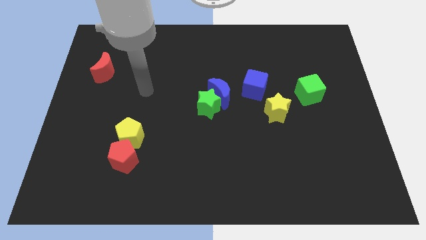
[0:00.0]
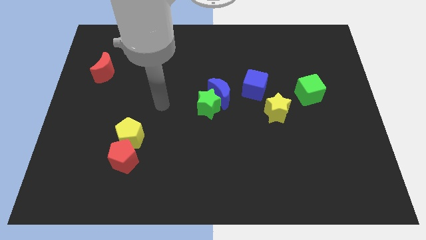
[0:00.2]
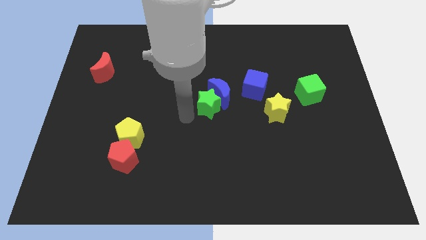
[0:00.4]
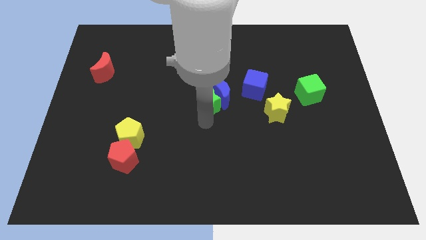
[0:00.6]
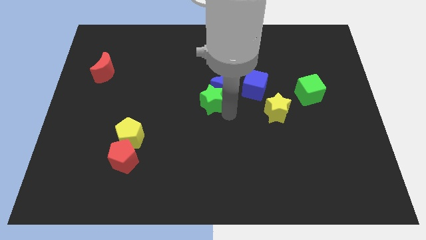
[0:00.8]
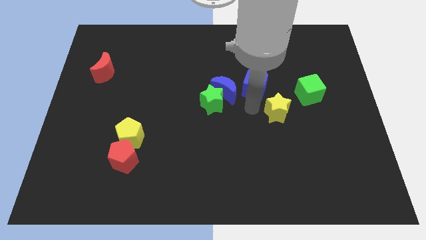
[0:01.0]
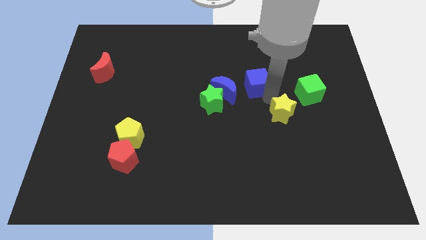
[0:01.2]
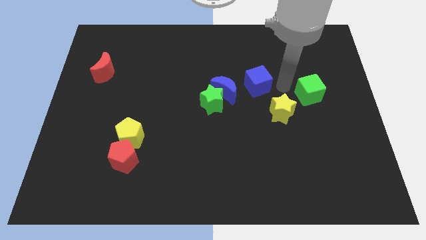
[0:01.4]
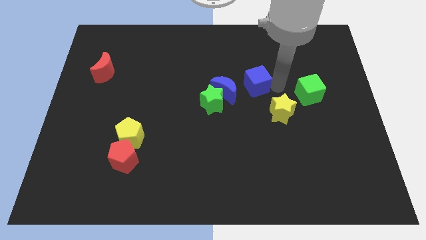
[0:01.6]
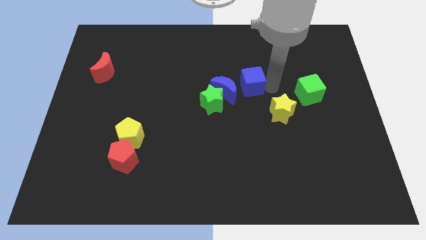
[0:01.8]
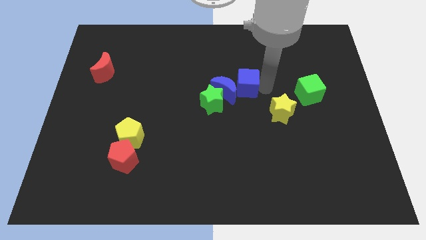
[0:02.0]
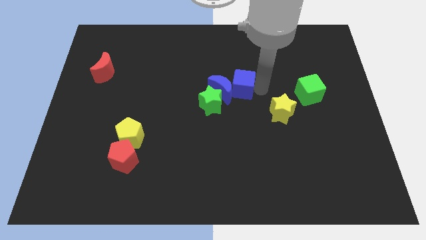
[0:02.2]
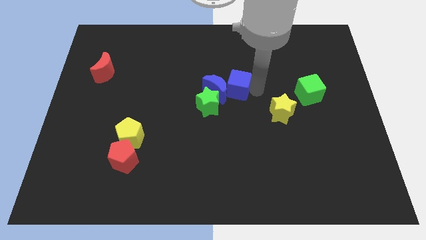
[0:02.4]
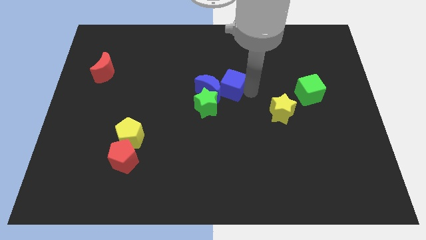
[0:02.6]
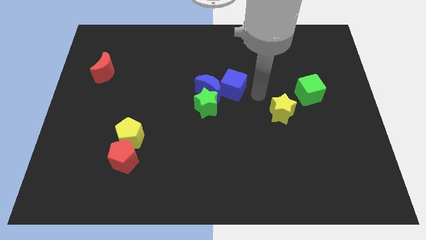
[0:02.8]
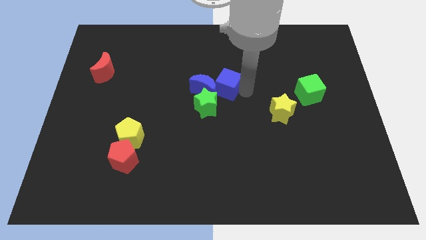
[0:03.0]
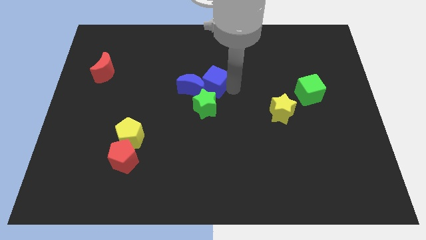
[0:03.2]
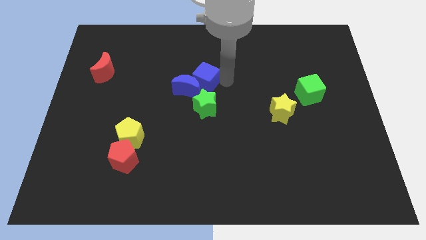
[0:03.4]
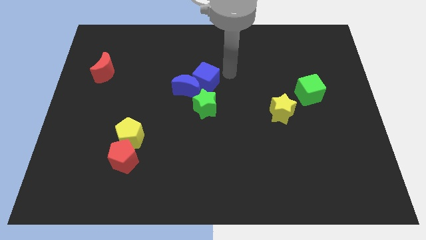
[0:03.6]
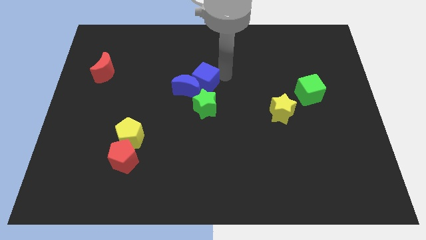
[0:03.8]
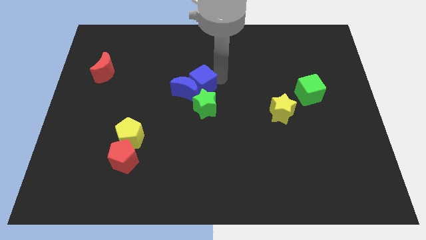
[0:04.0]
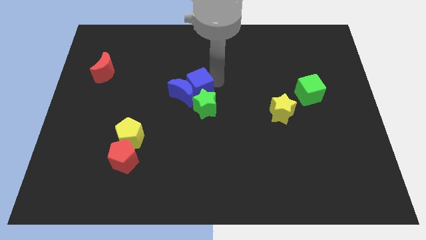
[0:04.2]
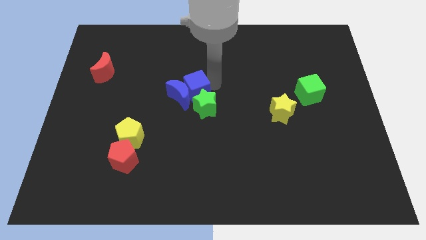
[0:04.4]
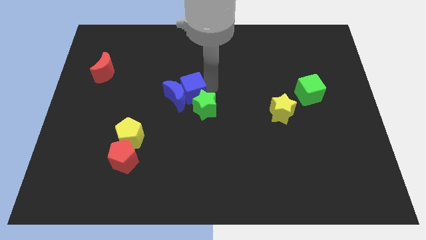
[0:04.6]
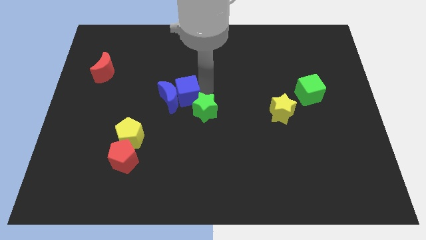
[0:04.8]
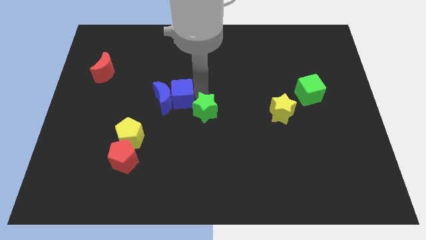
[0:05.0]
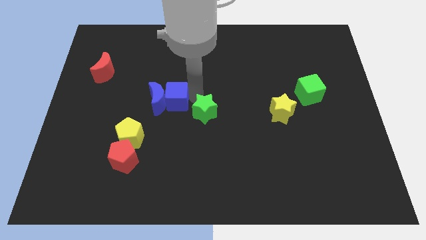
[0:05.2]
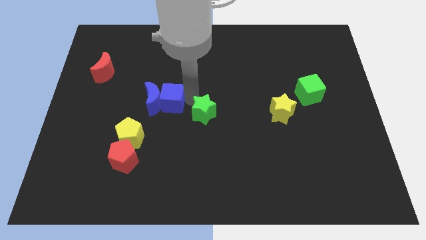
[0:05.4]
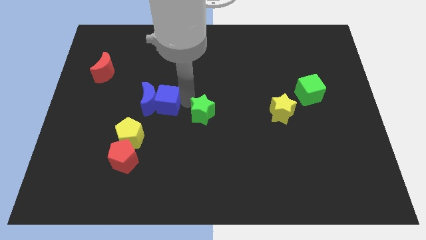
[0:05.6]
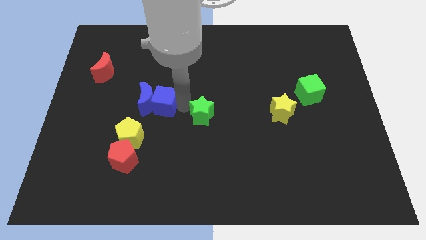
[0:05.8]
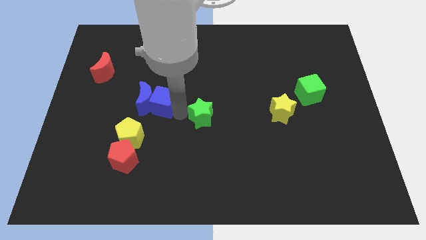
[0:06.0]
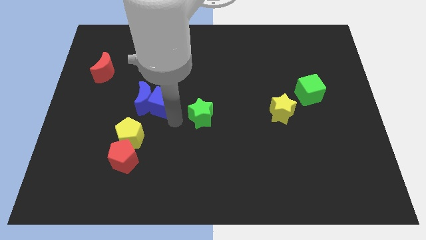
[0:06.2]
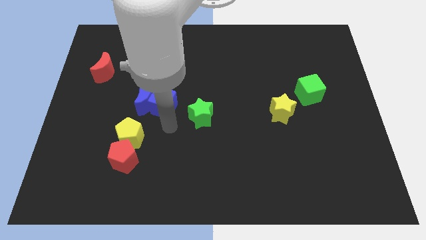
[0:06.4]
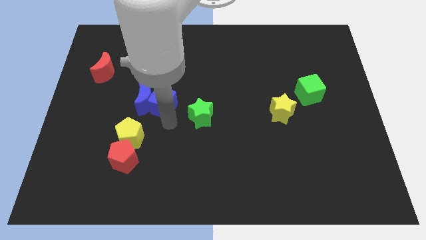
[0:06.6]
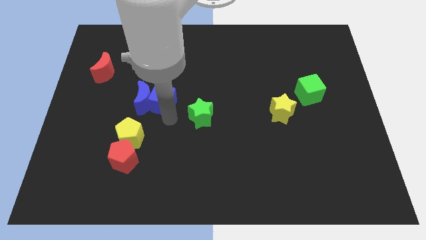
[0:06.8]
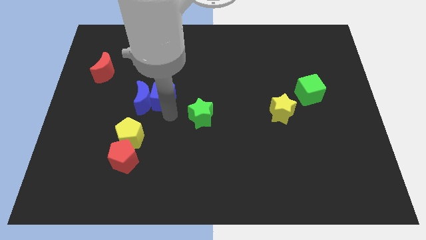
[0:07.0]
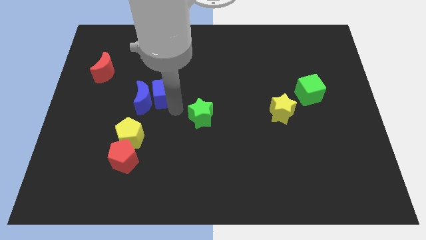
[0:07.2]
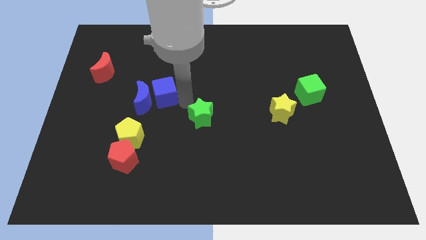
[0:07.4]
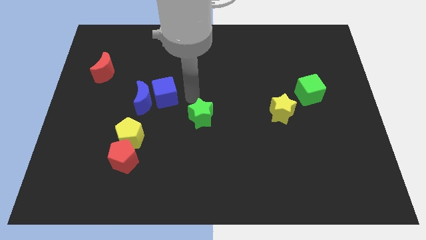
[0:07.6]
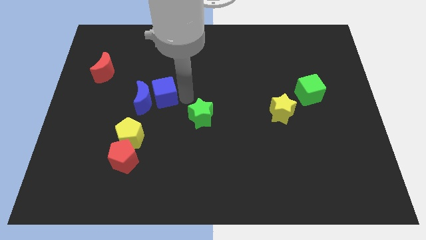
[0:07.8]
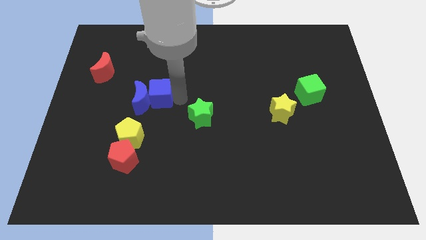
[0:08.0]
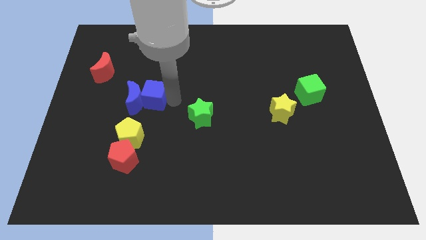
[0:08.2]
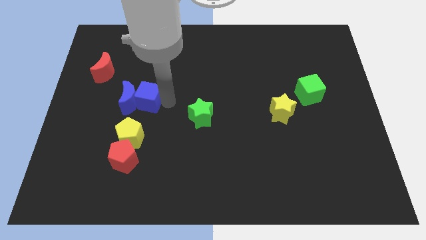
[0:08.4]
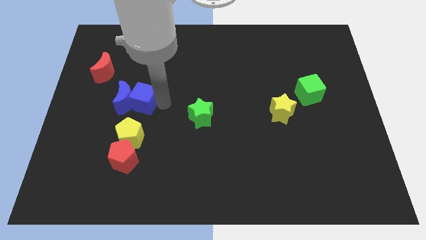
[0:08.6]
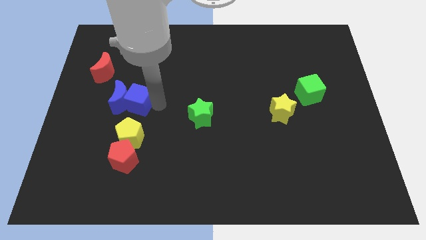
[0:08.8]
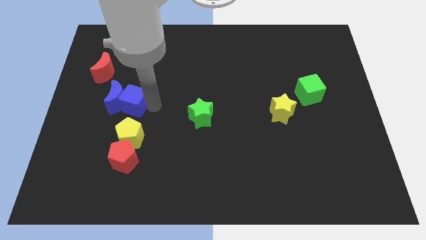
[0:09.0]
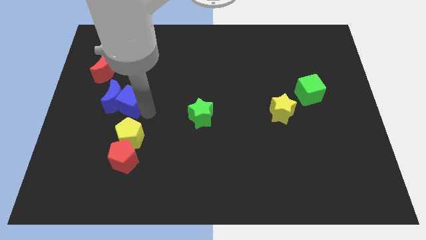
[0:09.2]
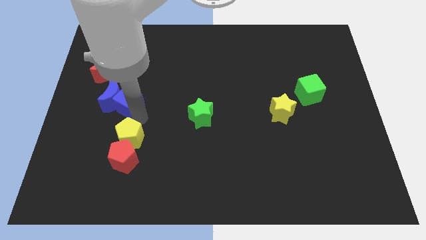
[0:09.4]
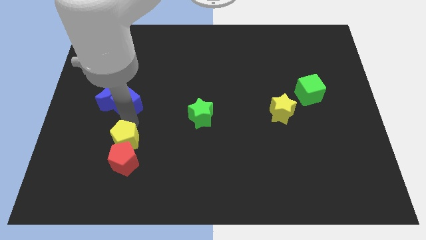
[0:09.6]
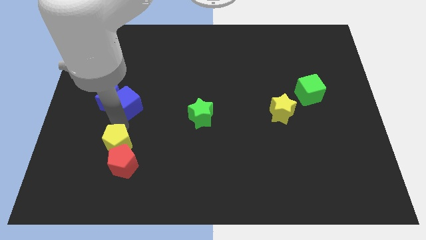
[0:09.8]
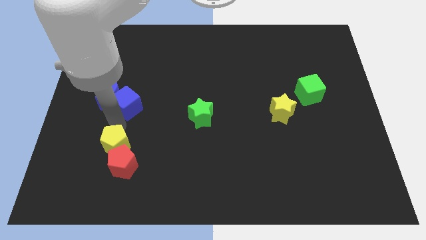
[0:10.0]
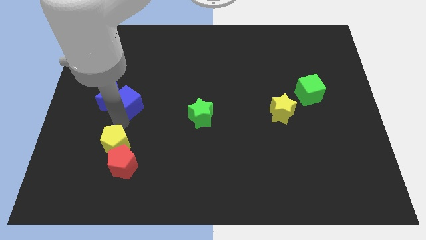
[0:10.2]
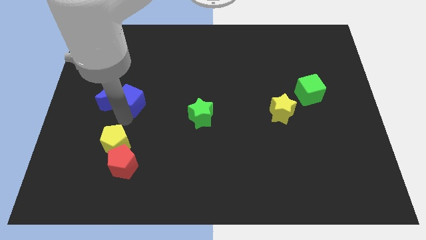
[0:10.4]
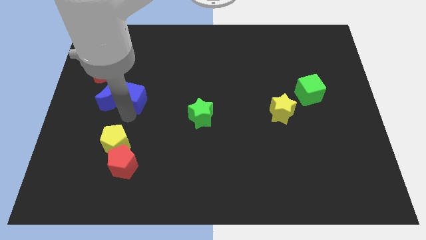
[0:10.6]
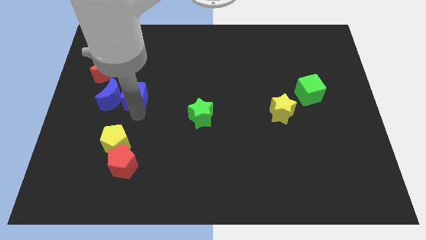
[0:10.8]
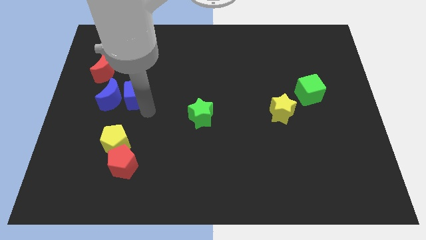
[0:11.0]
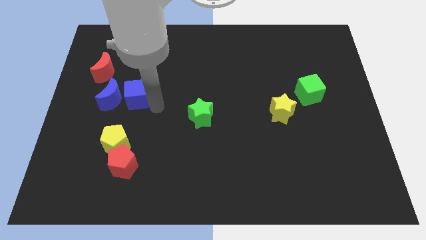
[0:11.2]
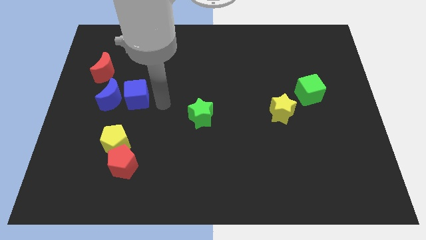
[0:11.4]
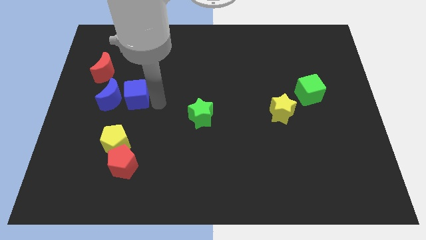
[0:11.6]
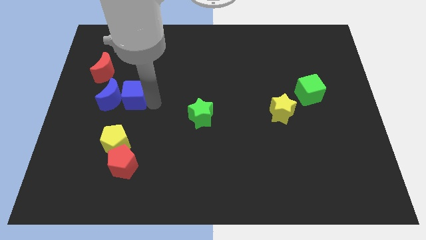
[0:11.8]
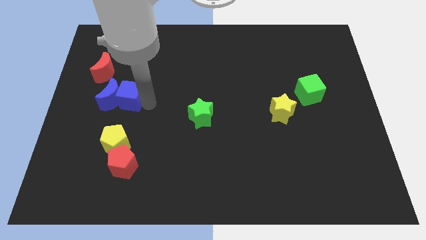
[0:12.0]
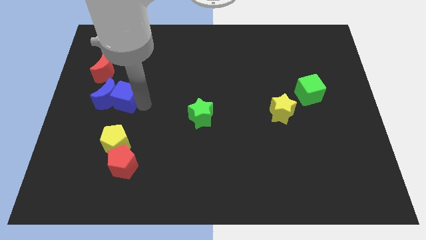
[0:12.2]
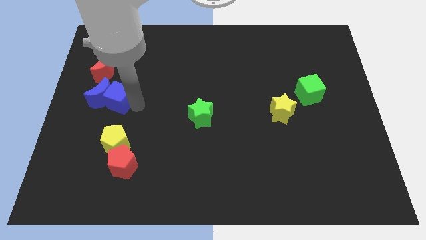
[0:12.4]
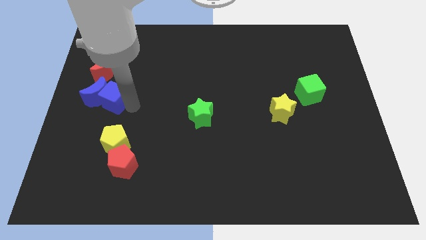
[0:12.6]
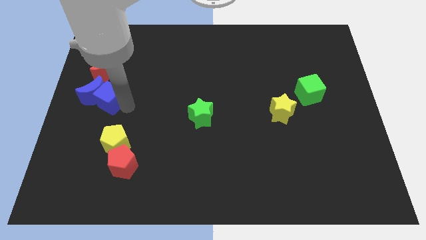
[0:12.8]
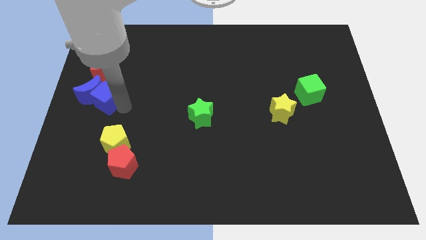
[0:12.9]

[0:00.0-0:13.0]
push the blue cube to the left side

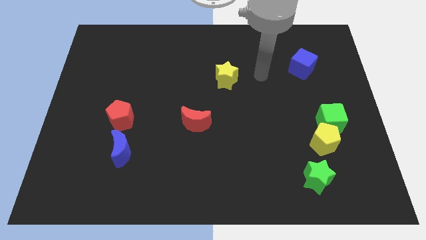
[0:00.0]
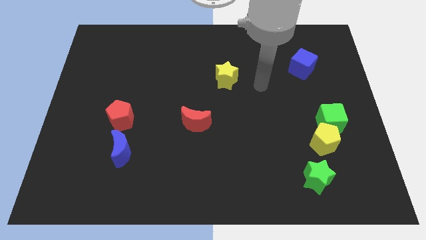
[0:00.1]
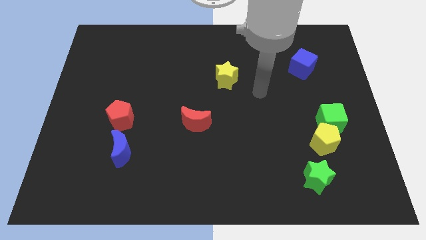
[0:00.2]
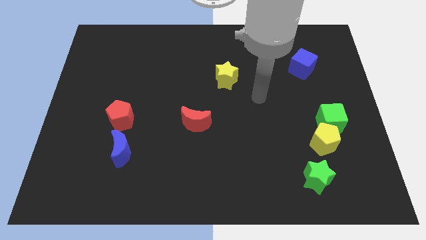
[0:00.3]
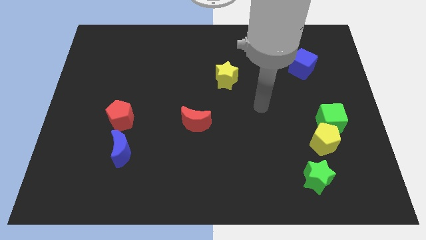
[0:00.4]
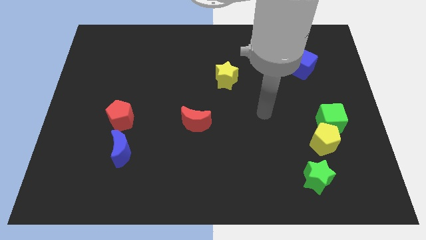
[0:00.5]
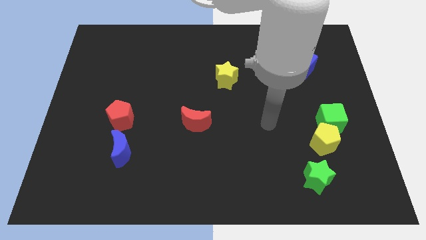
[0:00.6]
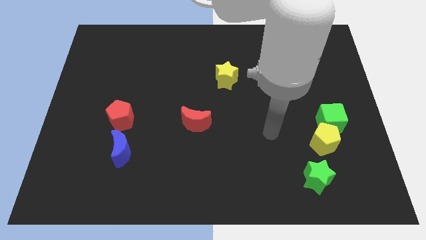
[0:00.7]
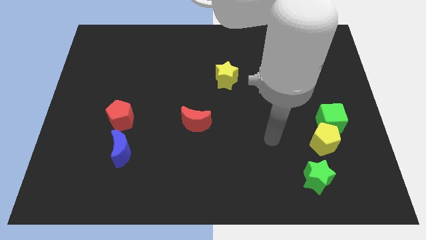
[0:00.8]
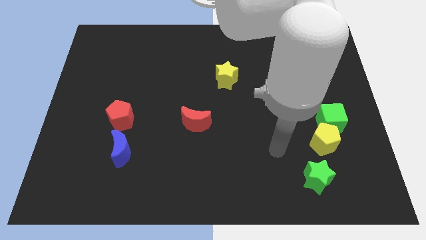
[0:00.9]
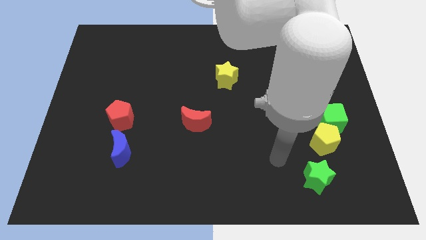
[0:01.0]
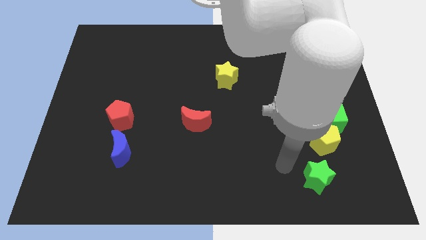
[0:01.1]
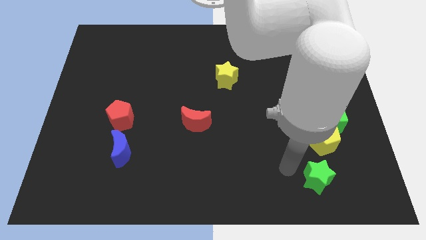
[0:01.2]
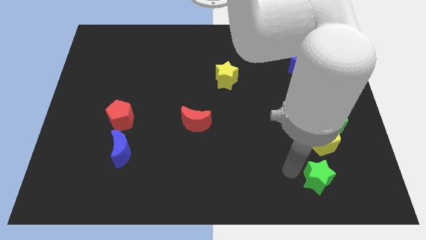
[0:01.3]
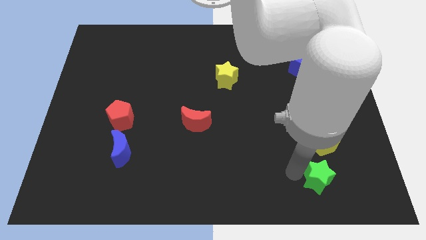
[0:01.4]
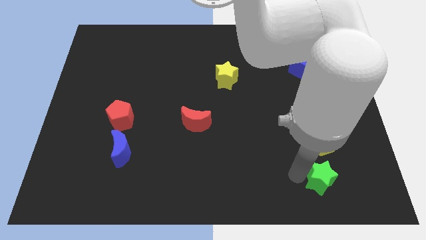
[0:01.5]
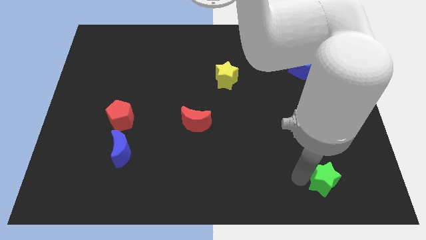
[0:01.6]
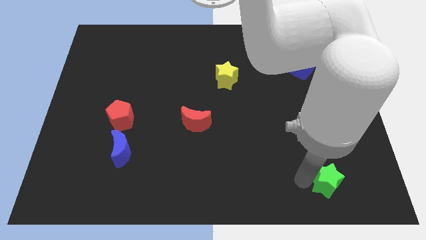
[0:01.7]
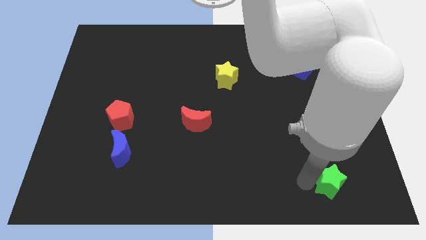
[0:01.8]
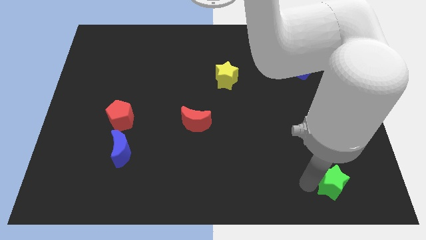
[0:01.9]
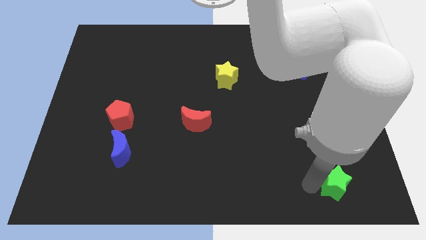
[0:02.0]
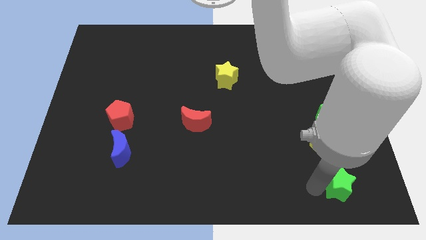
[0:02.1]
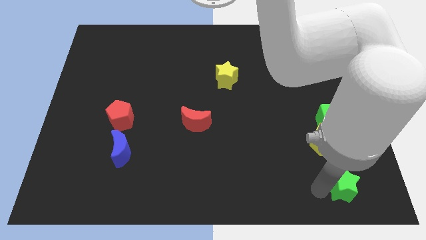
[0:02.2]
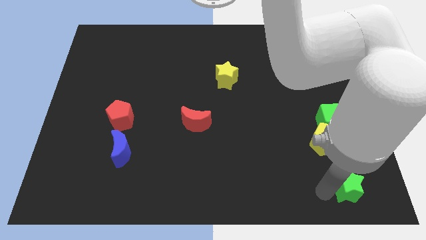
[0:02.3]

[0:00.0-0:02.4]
slide the green star to the bottom right
